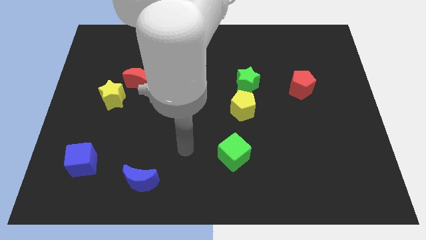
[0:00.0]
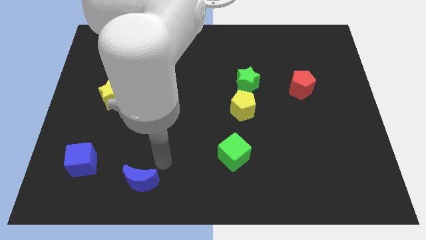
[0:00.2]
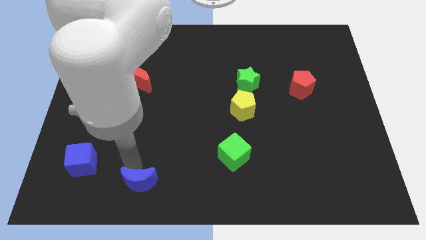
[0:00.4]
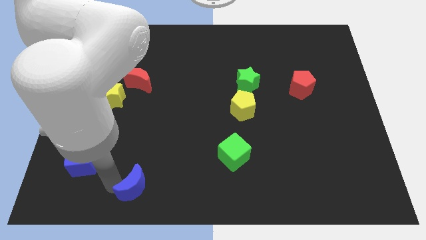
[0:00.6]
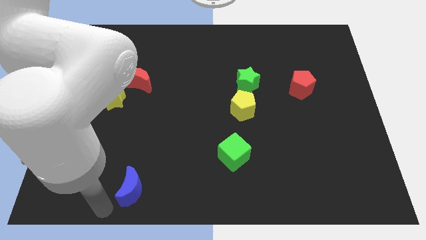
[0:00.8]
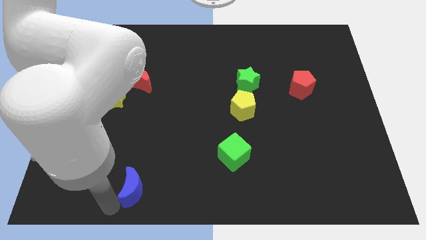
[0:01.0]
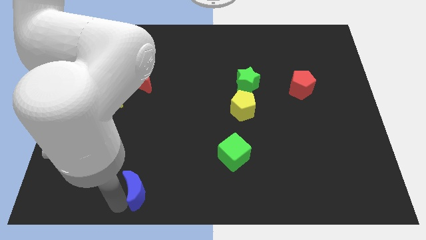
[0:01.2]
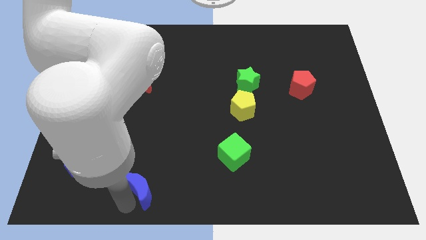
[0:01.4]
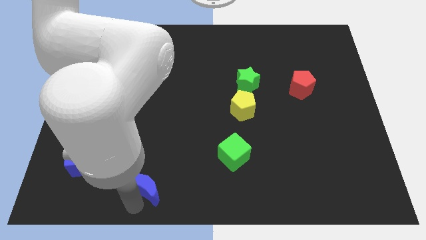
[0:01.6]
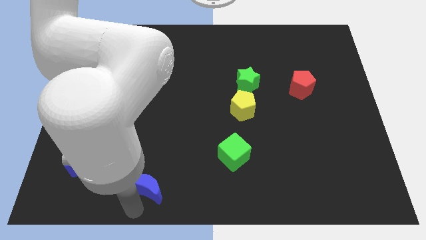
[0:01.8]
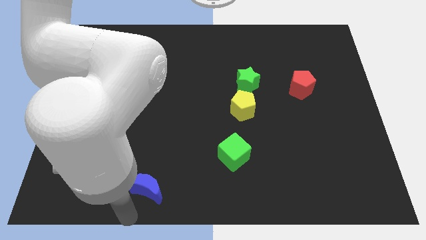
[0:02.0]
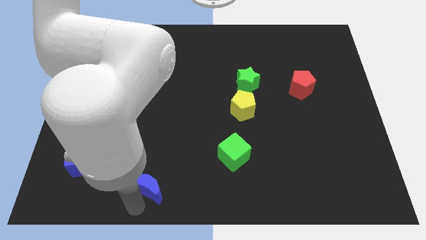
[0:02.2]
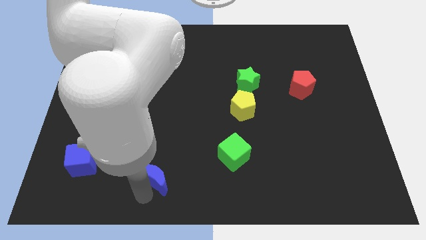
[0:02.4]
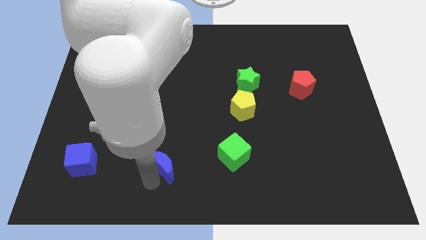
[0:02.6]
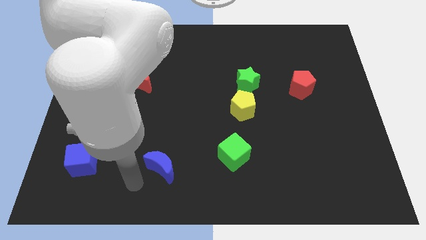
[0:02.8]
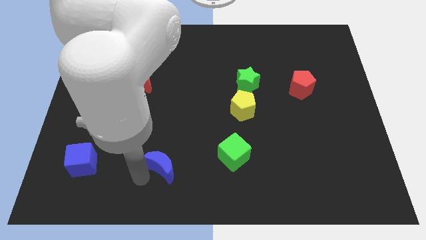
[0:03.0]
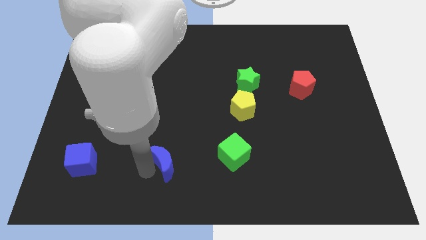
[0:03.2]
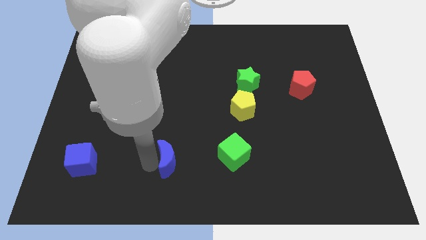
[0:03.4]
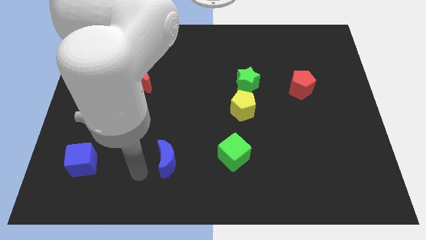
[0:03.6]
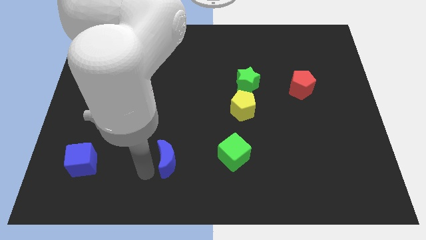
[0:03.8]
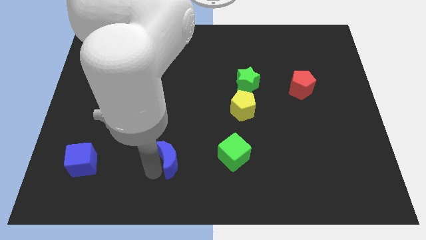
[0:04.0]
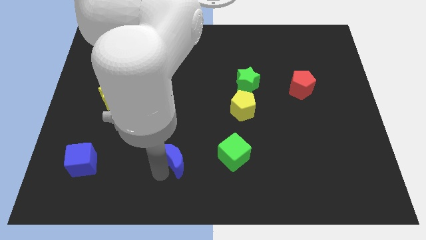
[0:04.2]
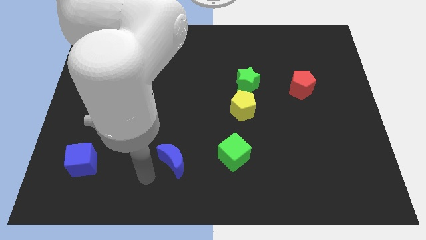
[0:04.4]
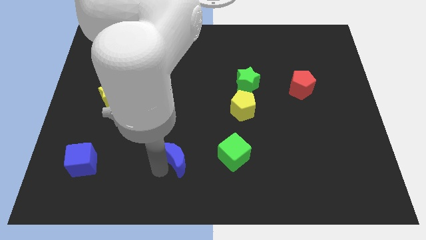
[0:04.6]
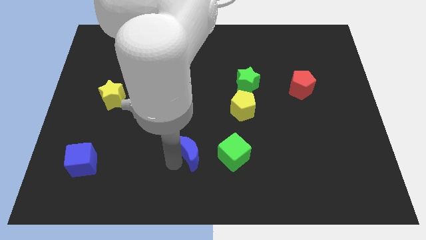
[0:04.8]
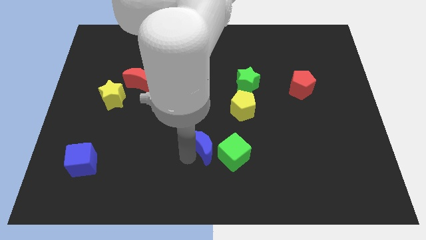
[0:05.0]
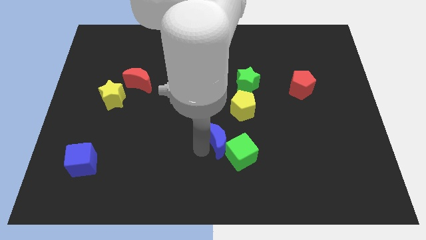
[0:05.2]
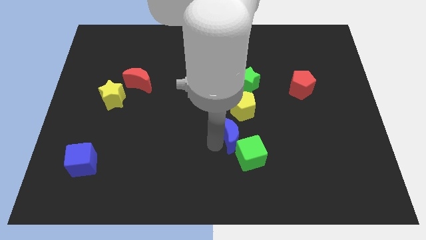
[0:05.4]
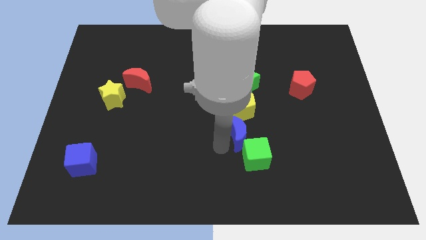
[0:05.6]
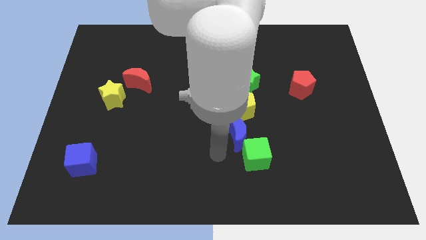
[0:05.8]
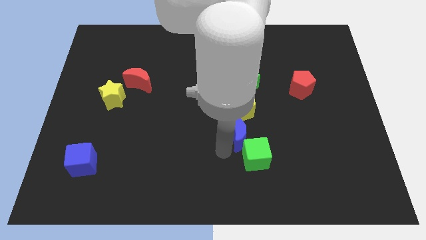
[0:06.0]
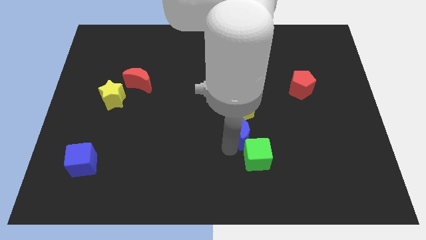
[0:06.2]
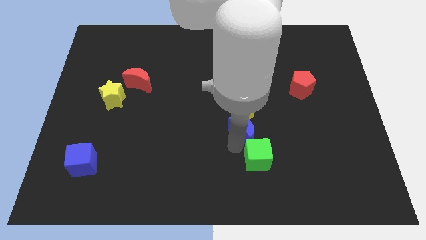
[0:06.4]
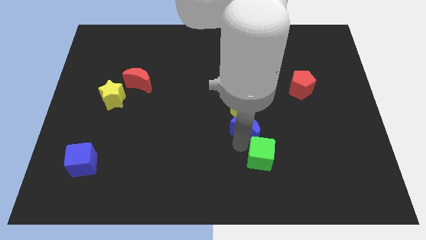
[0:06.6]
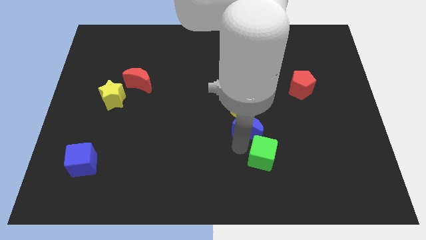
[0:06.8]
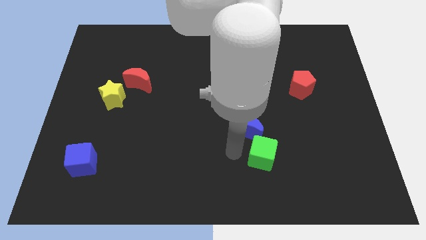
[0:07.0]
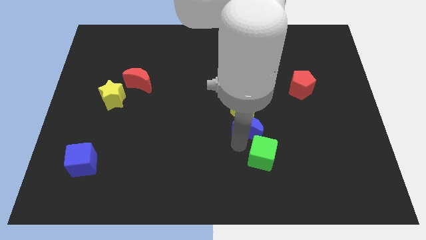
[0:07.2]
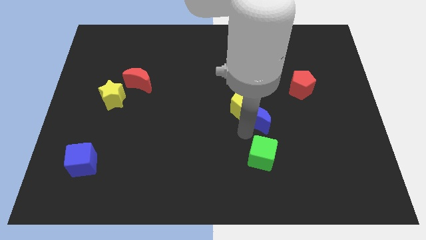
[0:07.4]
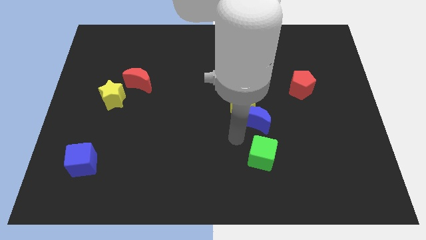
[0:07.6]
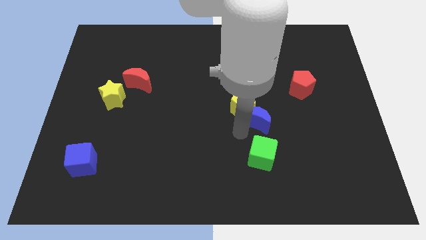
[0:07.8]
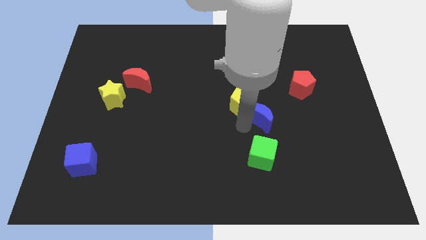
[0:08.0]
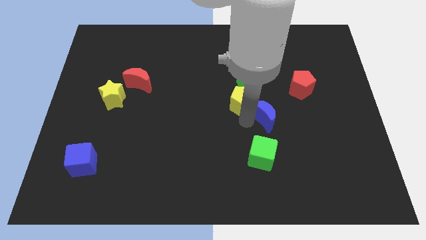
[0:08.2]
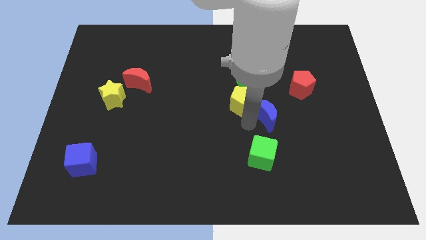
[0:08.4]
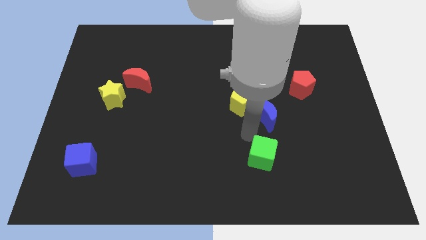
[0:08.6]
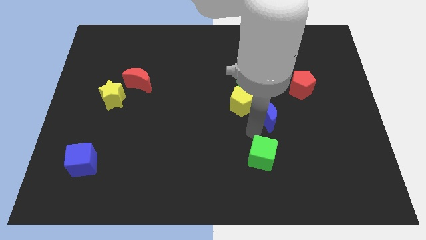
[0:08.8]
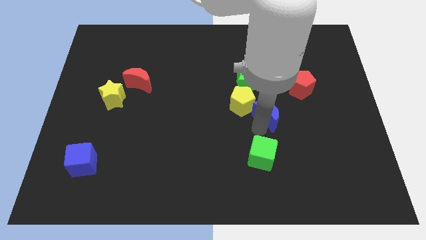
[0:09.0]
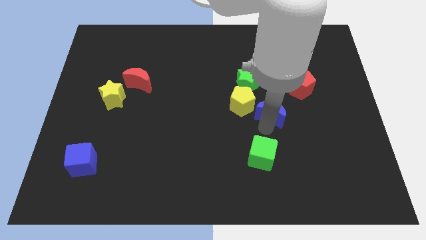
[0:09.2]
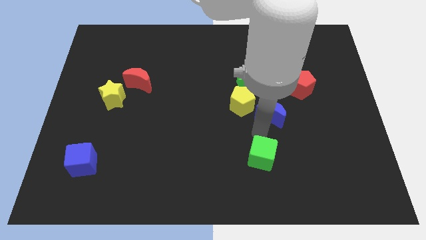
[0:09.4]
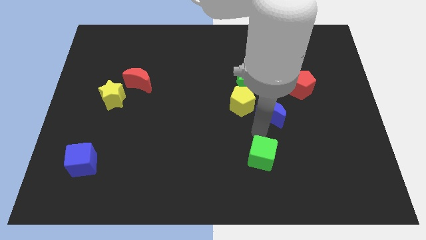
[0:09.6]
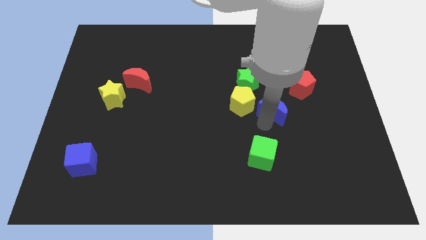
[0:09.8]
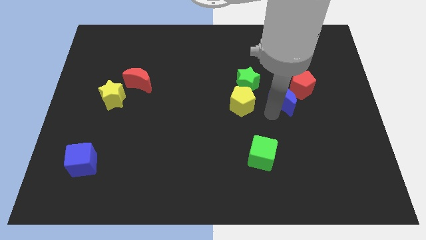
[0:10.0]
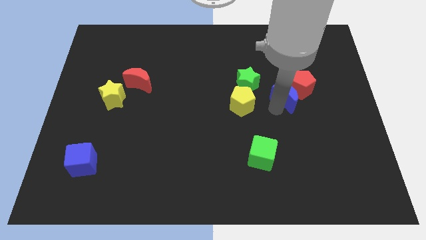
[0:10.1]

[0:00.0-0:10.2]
put the blue moon next to the red pentagon

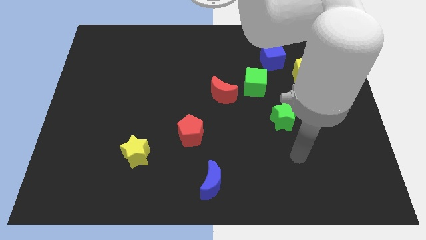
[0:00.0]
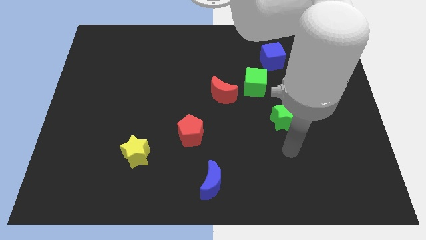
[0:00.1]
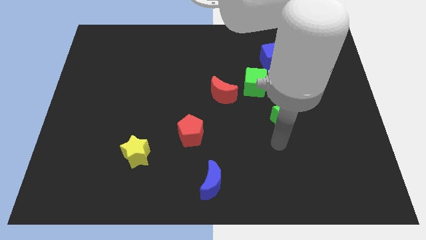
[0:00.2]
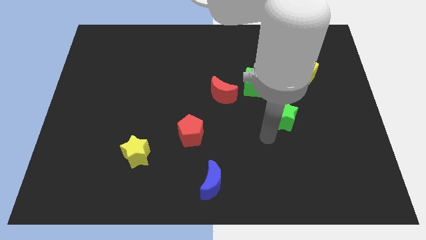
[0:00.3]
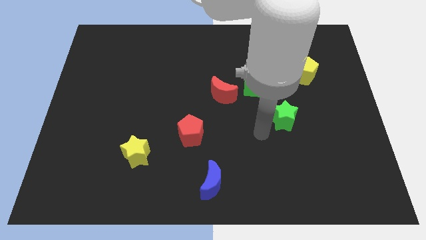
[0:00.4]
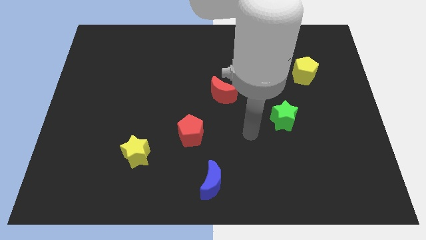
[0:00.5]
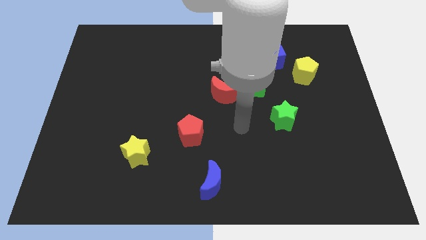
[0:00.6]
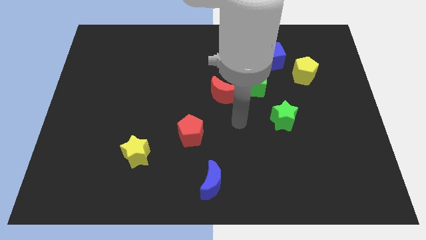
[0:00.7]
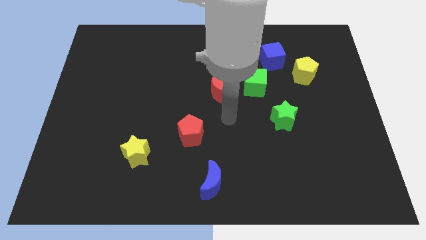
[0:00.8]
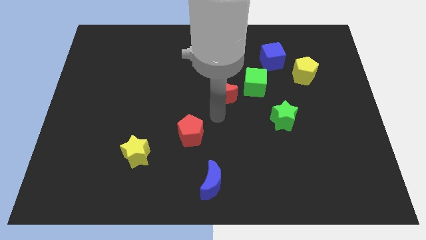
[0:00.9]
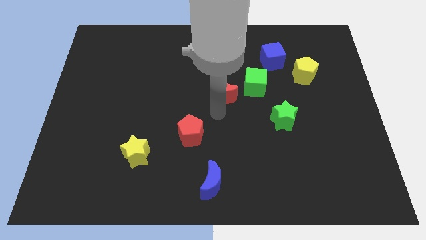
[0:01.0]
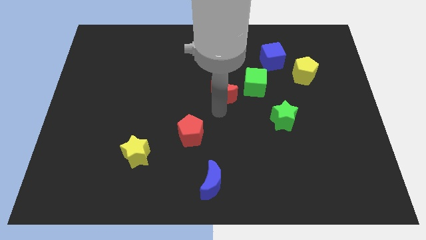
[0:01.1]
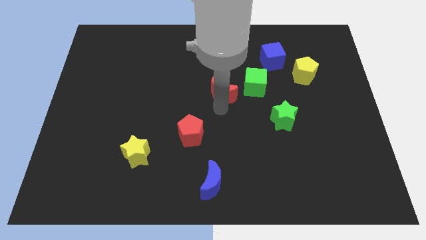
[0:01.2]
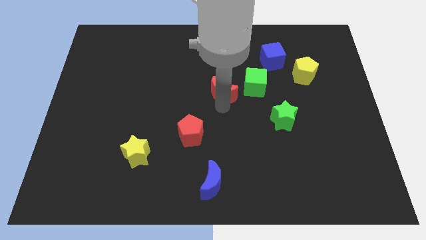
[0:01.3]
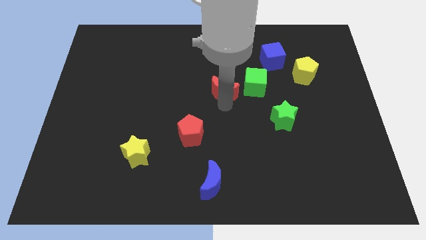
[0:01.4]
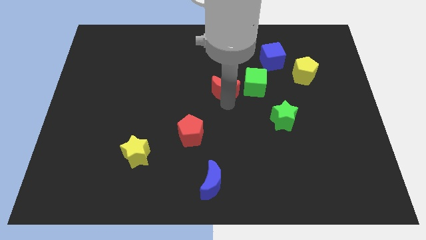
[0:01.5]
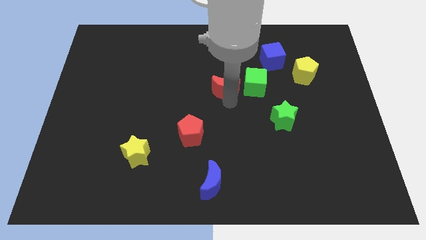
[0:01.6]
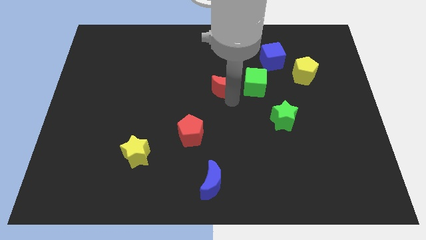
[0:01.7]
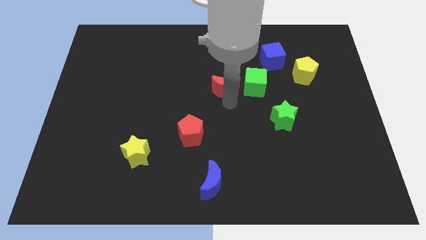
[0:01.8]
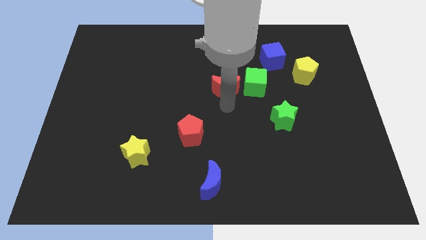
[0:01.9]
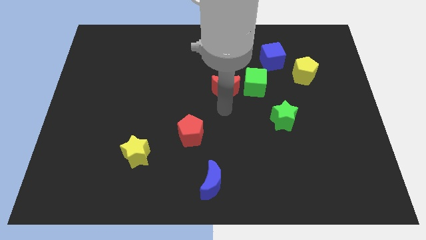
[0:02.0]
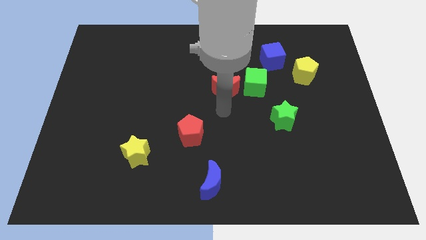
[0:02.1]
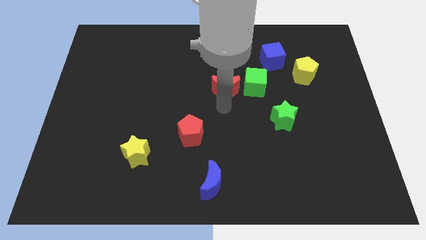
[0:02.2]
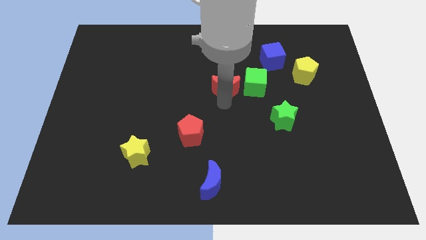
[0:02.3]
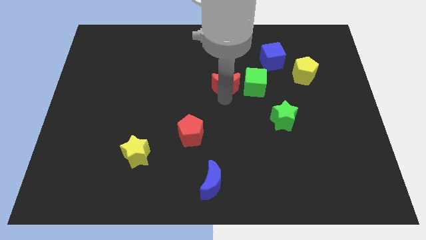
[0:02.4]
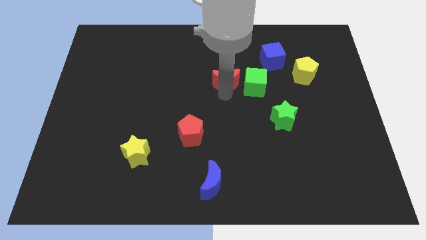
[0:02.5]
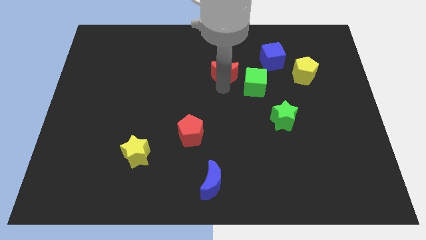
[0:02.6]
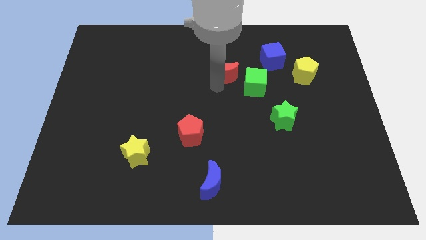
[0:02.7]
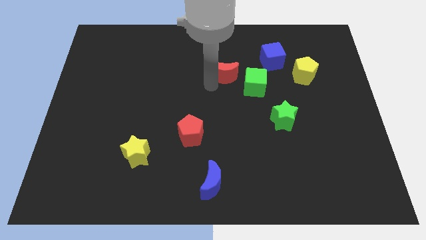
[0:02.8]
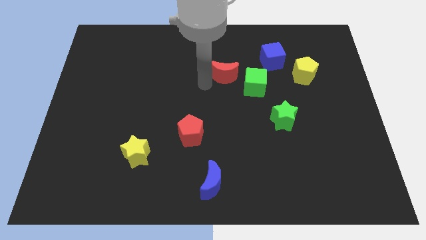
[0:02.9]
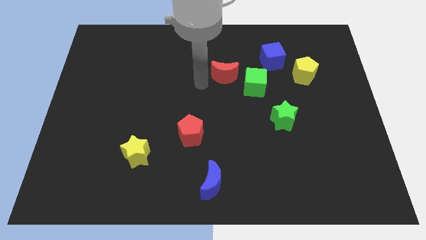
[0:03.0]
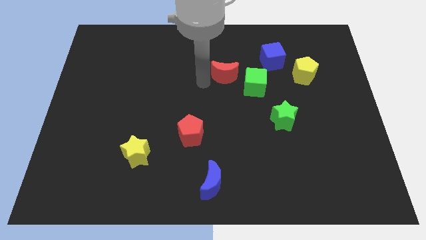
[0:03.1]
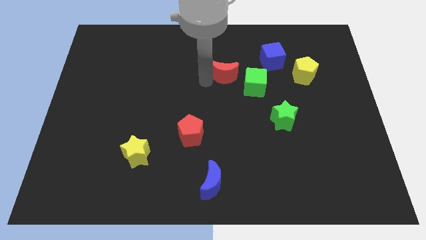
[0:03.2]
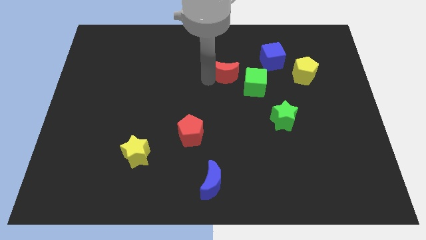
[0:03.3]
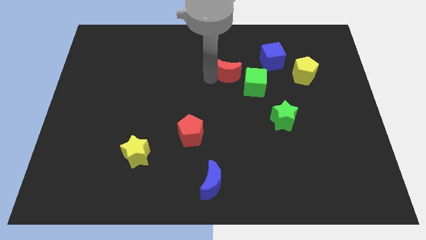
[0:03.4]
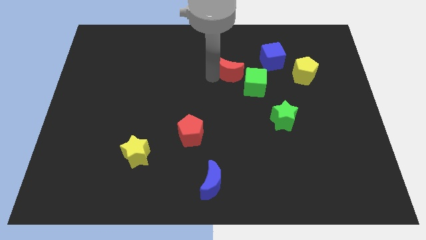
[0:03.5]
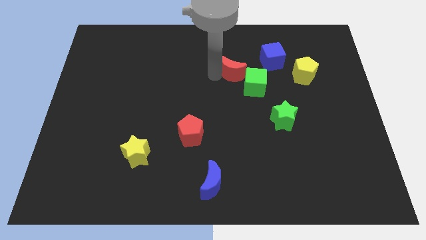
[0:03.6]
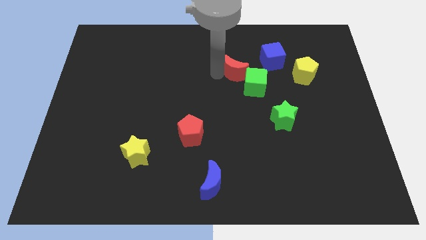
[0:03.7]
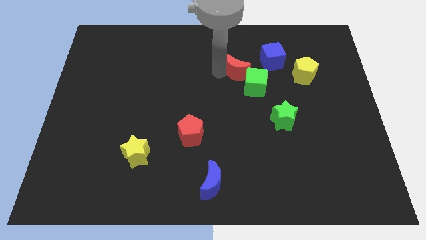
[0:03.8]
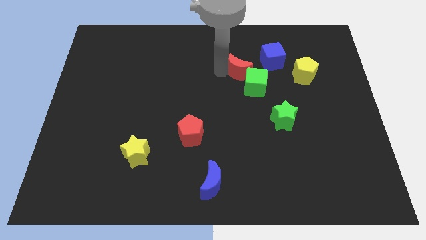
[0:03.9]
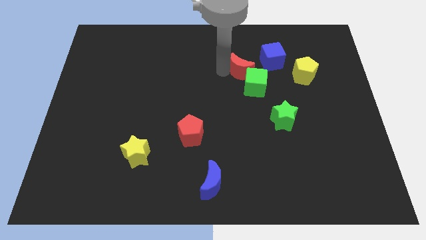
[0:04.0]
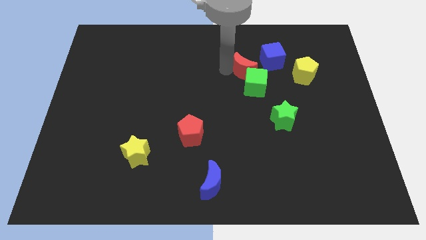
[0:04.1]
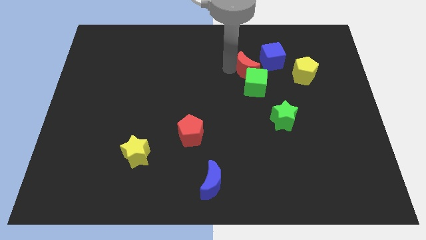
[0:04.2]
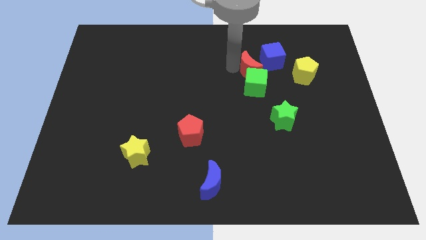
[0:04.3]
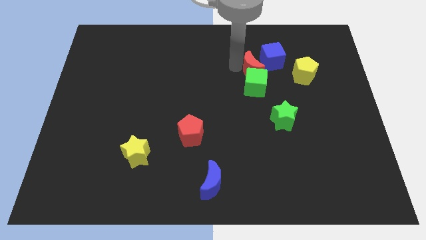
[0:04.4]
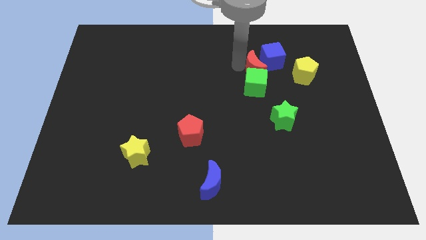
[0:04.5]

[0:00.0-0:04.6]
put the red moon to the blue cube
